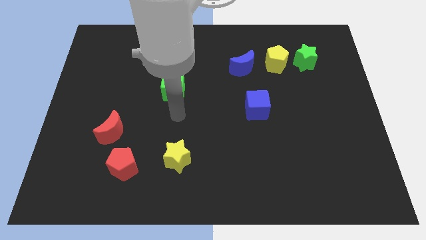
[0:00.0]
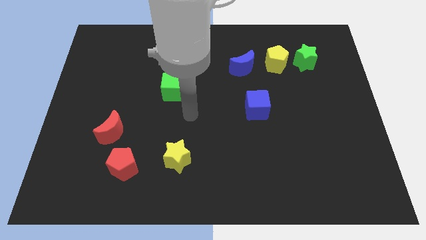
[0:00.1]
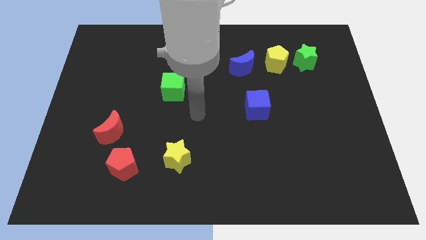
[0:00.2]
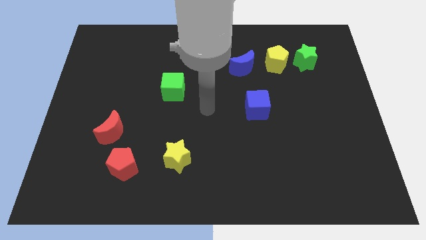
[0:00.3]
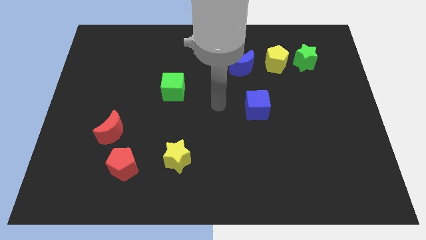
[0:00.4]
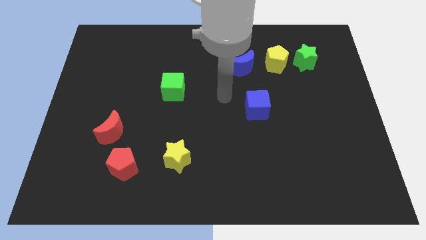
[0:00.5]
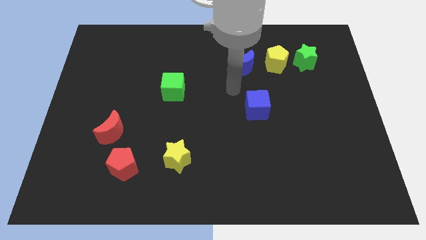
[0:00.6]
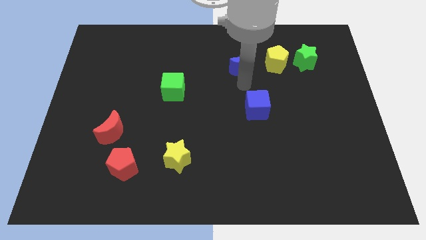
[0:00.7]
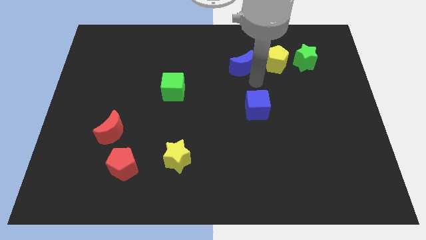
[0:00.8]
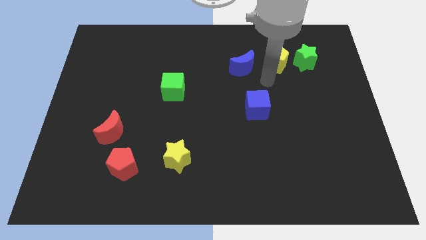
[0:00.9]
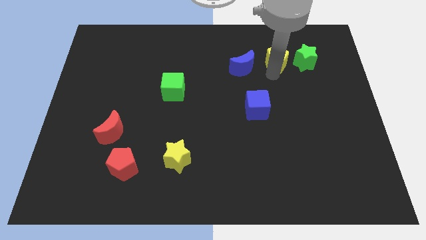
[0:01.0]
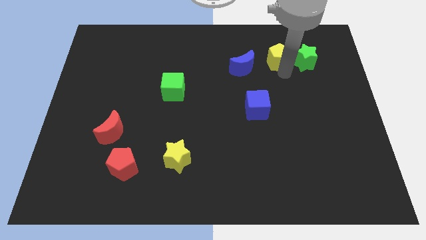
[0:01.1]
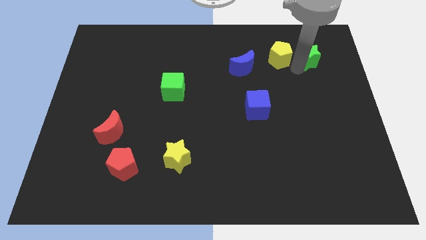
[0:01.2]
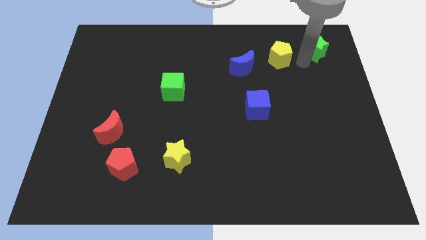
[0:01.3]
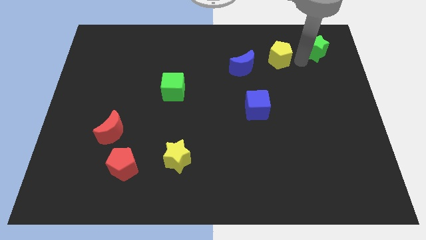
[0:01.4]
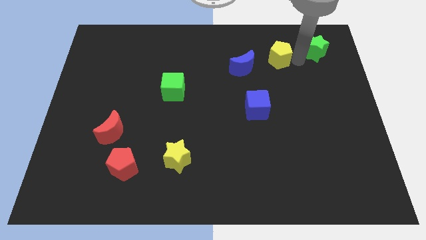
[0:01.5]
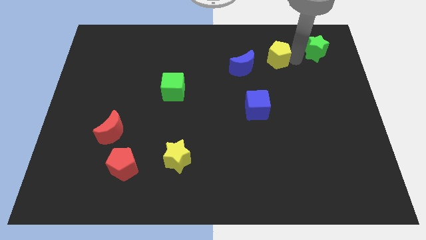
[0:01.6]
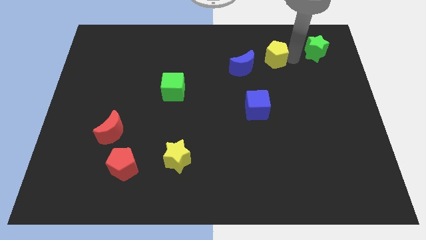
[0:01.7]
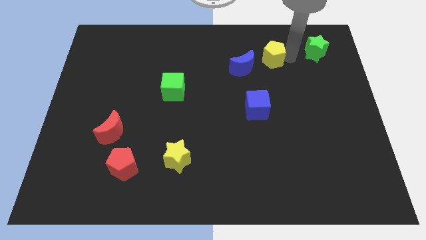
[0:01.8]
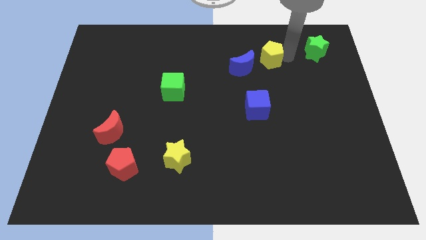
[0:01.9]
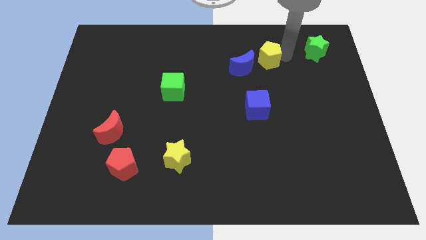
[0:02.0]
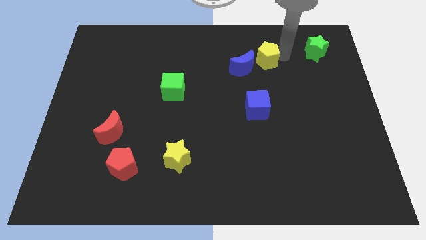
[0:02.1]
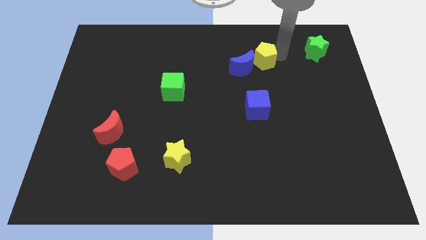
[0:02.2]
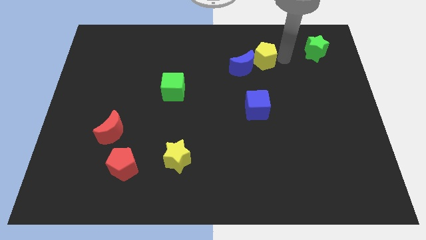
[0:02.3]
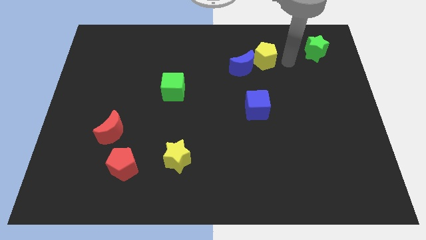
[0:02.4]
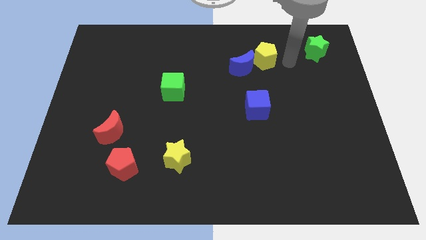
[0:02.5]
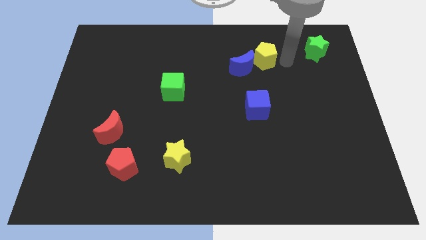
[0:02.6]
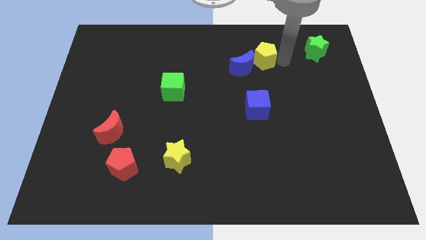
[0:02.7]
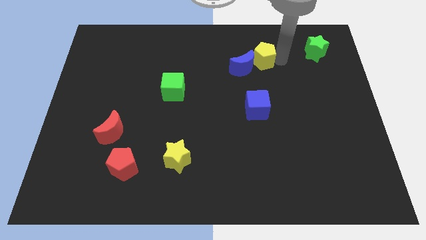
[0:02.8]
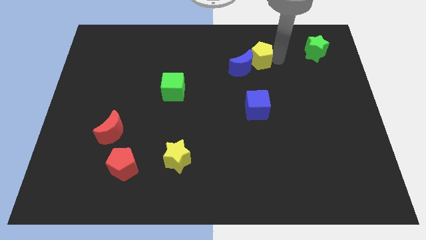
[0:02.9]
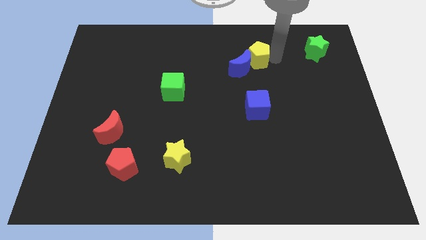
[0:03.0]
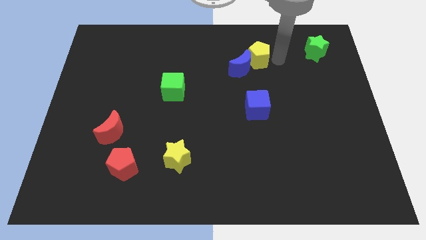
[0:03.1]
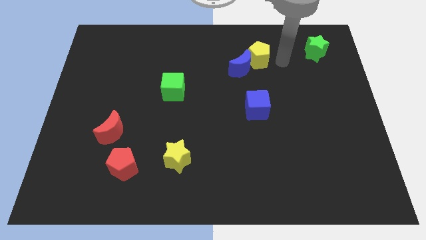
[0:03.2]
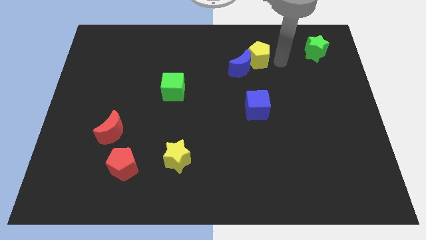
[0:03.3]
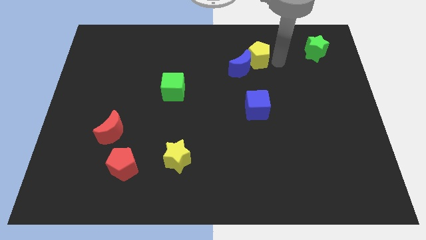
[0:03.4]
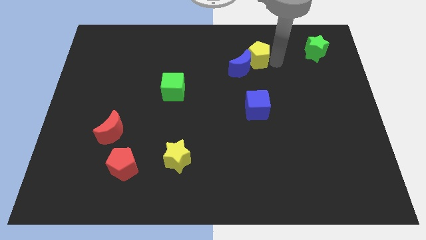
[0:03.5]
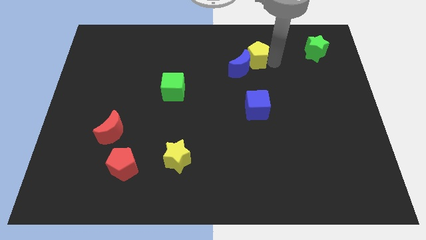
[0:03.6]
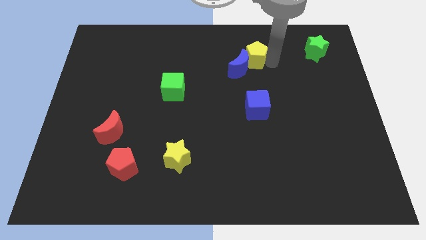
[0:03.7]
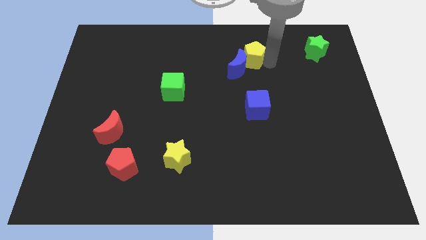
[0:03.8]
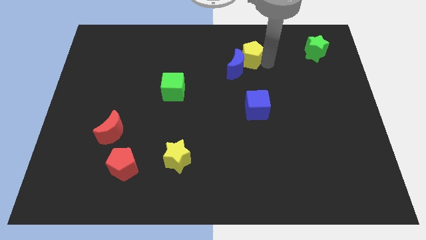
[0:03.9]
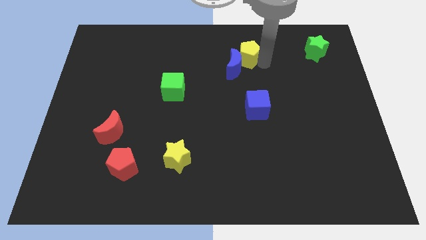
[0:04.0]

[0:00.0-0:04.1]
move the yellow pentagon left a little

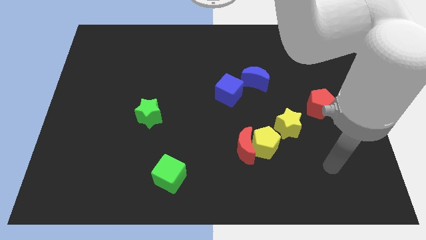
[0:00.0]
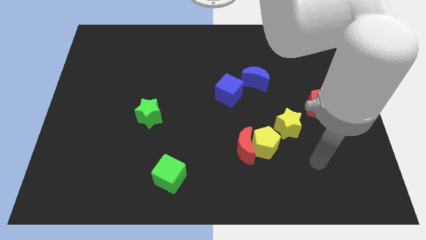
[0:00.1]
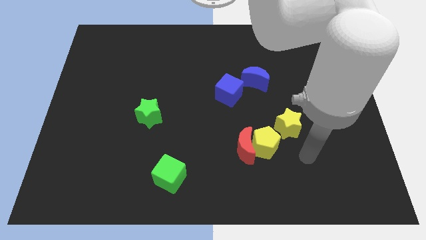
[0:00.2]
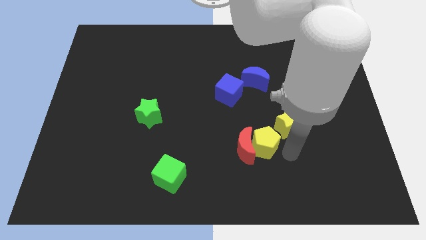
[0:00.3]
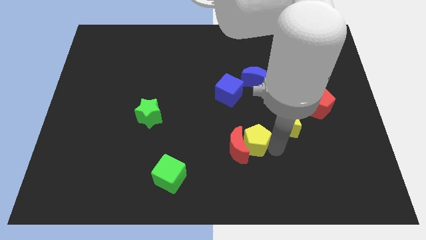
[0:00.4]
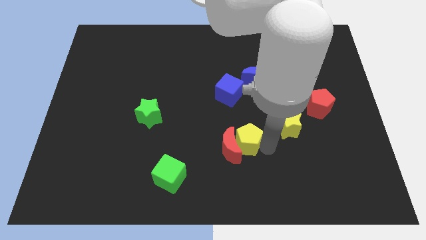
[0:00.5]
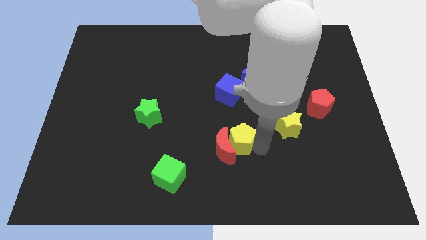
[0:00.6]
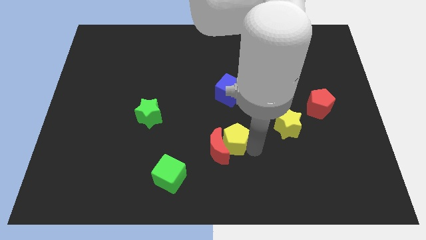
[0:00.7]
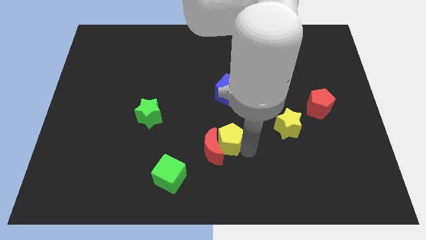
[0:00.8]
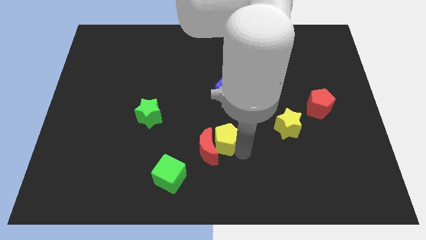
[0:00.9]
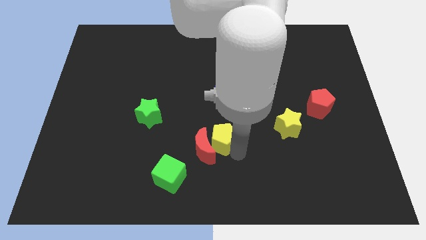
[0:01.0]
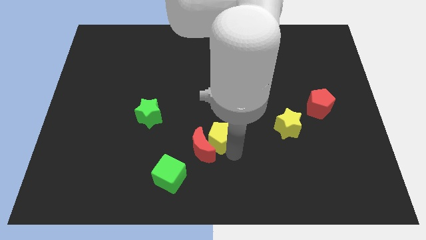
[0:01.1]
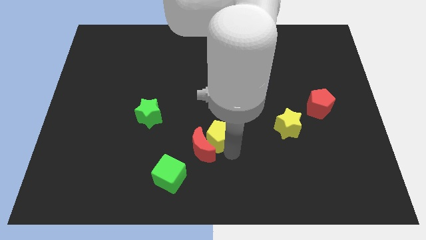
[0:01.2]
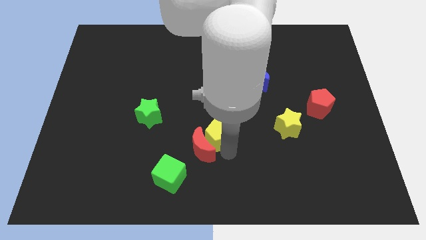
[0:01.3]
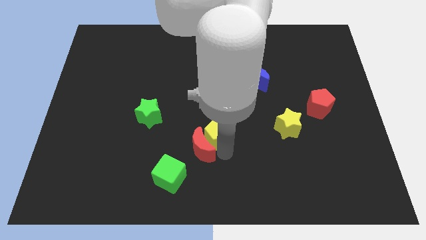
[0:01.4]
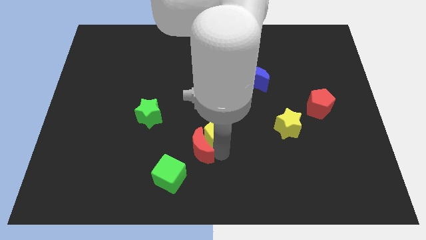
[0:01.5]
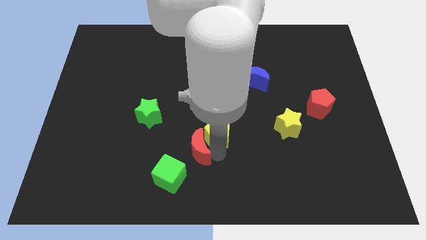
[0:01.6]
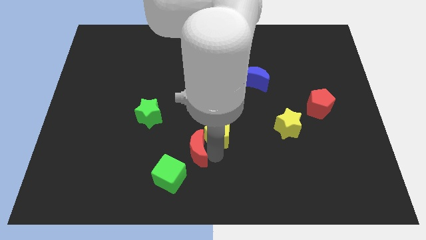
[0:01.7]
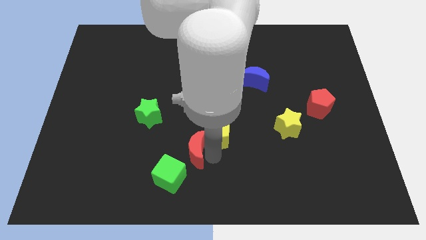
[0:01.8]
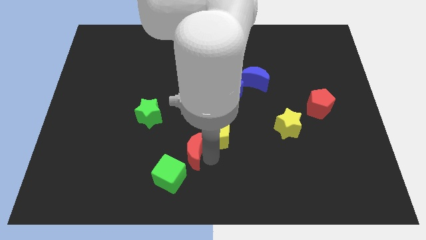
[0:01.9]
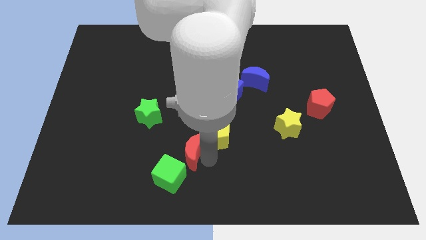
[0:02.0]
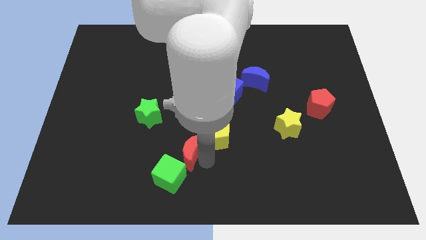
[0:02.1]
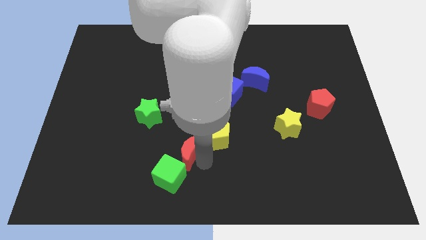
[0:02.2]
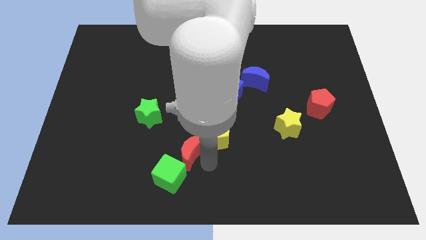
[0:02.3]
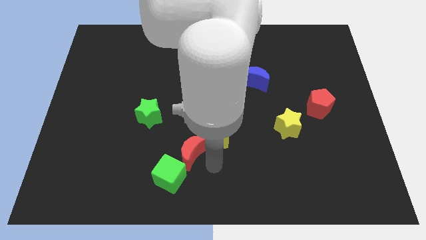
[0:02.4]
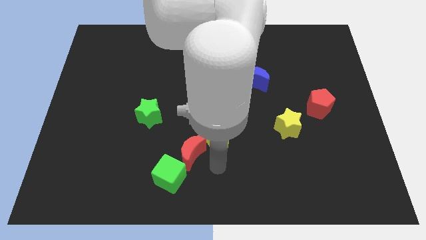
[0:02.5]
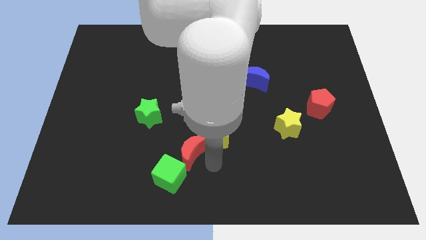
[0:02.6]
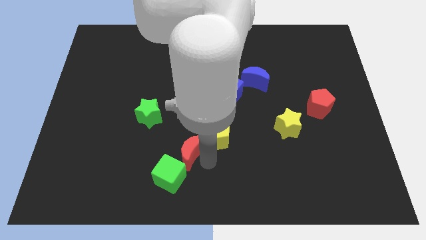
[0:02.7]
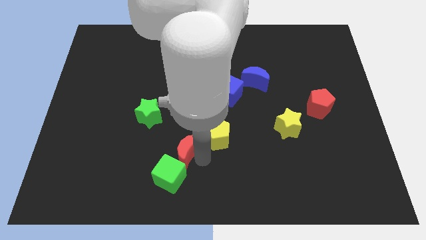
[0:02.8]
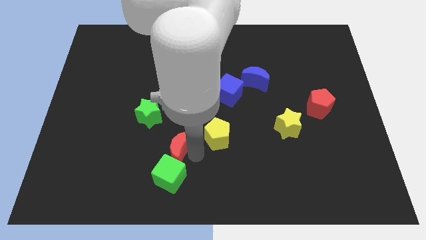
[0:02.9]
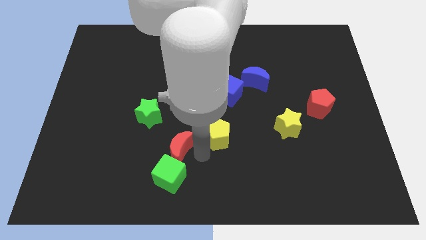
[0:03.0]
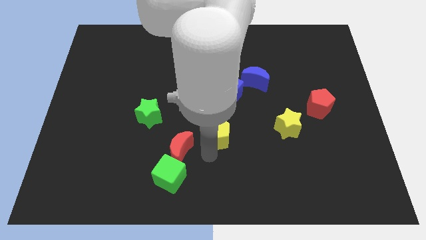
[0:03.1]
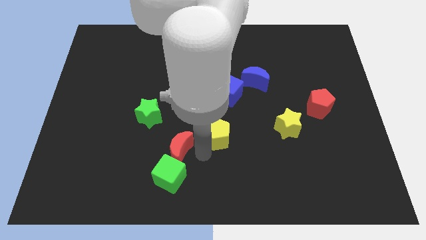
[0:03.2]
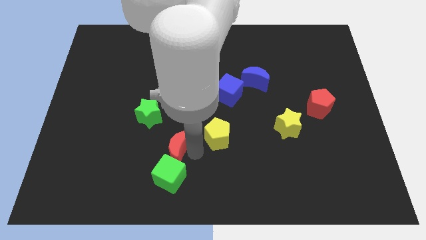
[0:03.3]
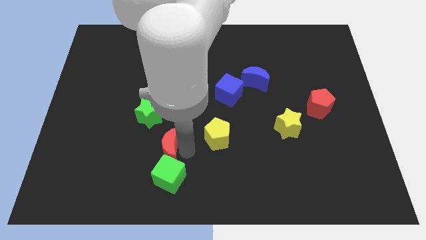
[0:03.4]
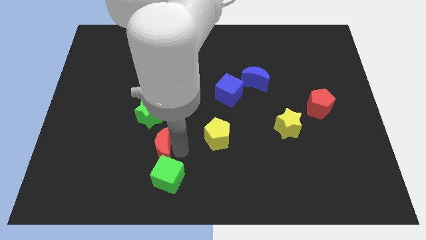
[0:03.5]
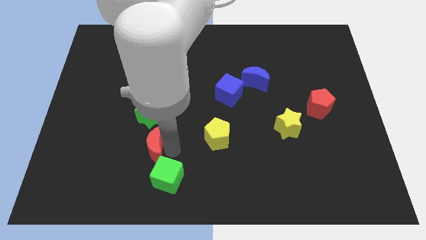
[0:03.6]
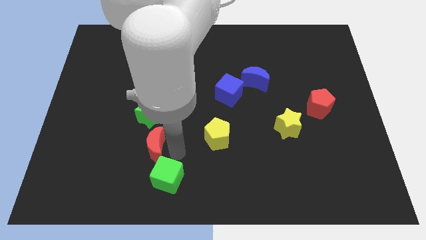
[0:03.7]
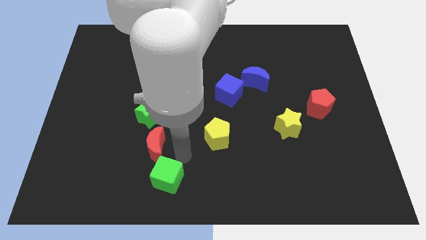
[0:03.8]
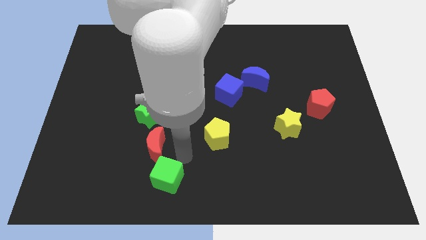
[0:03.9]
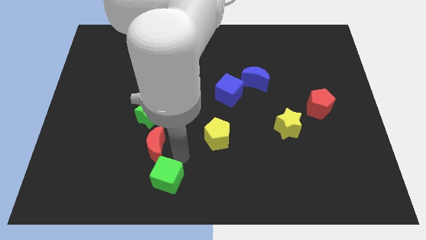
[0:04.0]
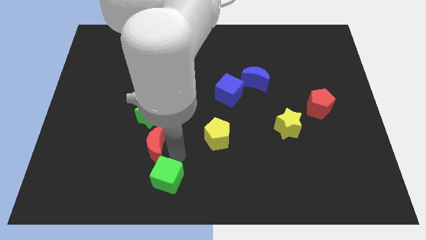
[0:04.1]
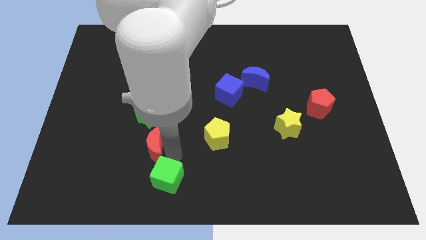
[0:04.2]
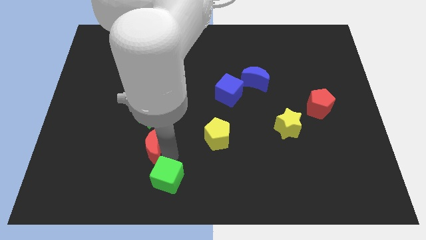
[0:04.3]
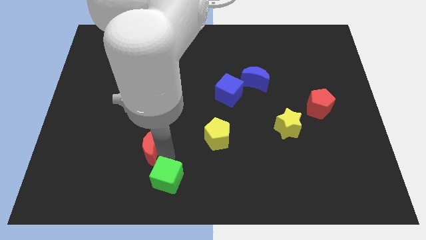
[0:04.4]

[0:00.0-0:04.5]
slide the red moon left
